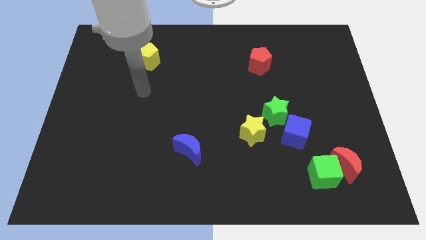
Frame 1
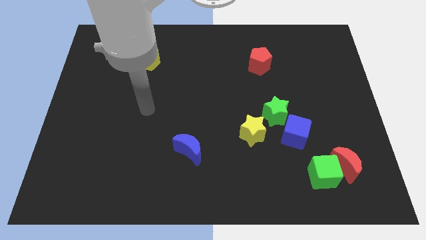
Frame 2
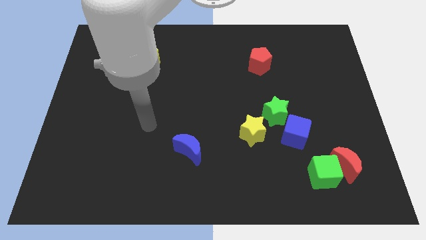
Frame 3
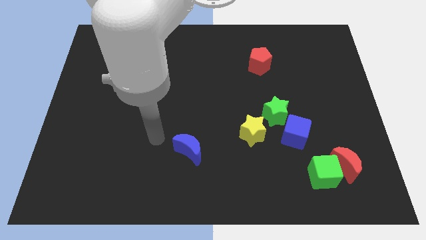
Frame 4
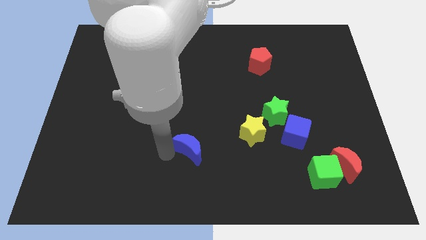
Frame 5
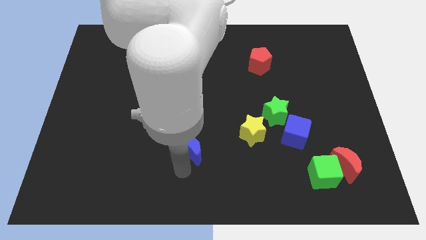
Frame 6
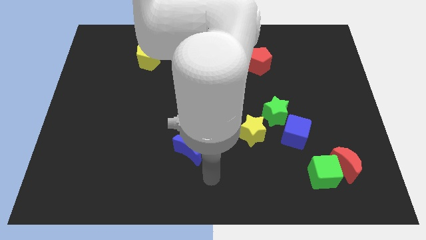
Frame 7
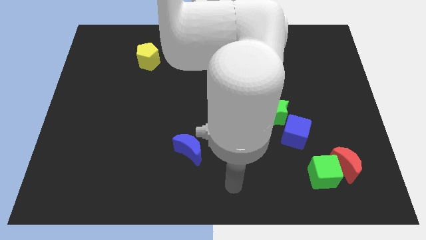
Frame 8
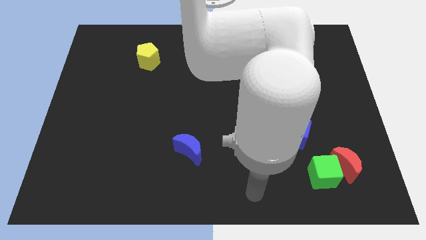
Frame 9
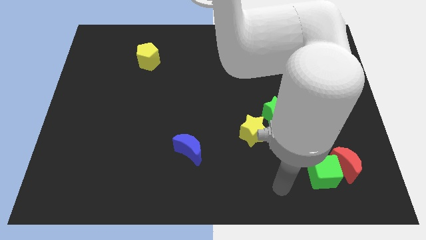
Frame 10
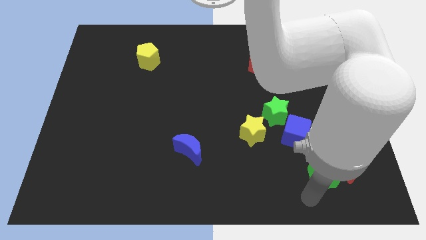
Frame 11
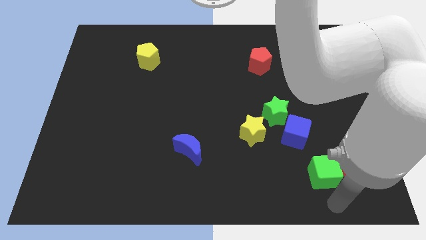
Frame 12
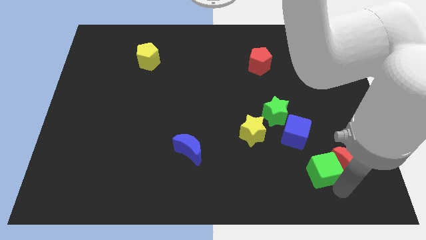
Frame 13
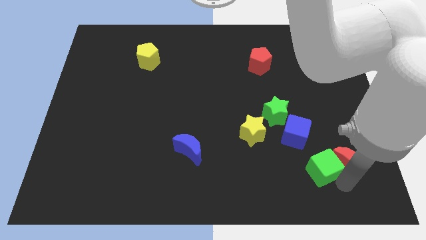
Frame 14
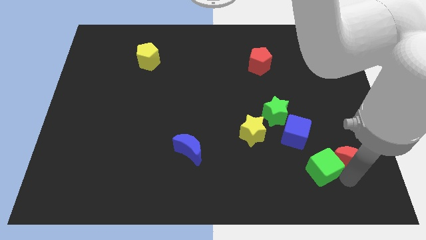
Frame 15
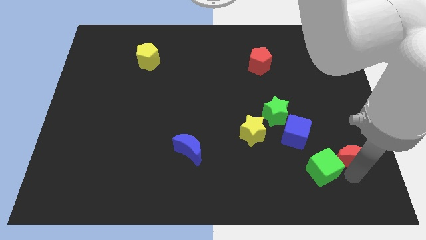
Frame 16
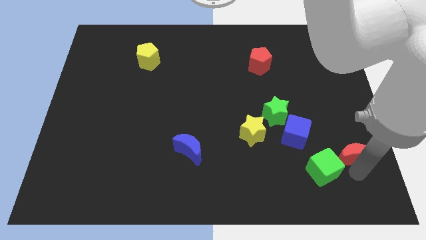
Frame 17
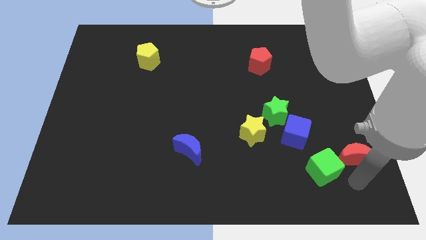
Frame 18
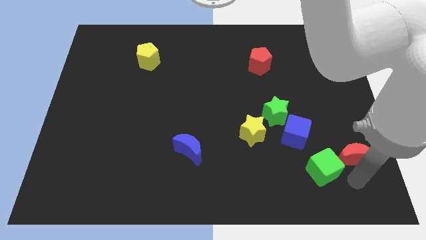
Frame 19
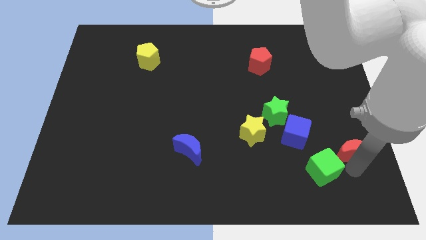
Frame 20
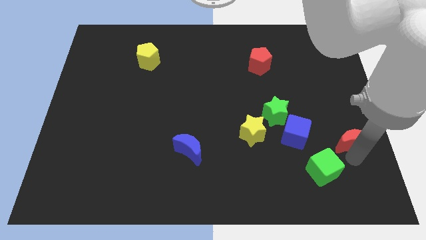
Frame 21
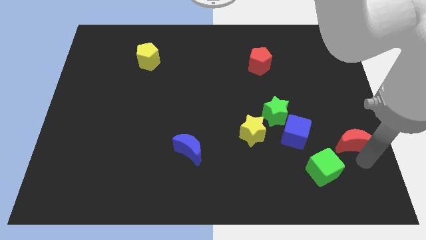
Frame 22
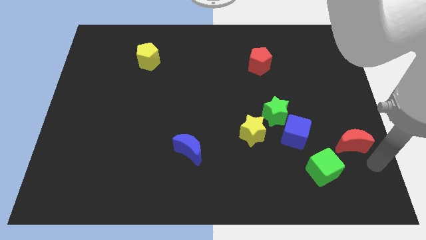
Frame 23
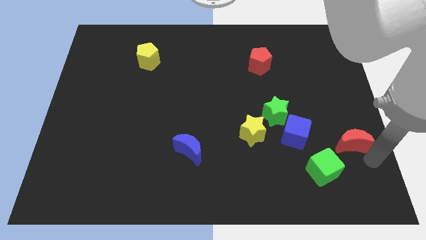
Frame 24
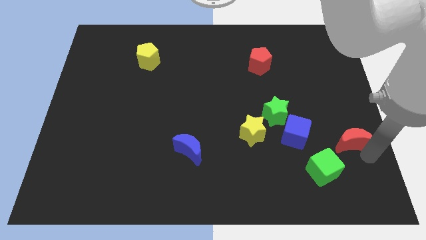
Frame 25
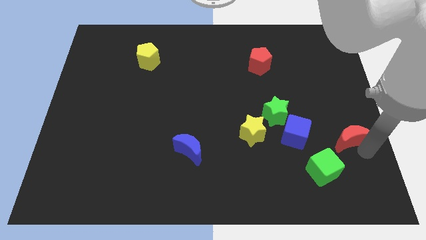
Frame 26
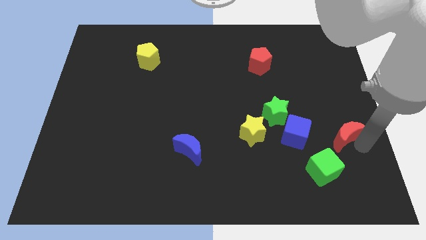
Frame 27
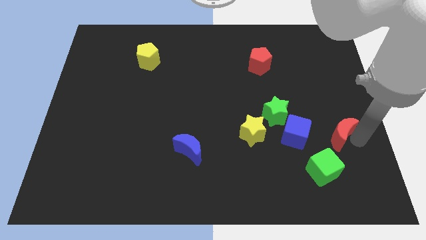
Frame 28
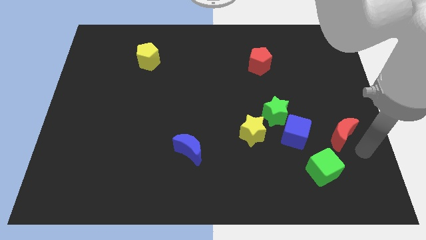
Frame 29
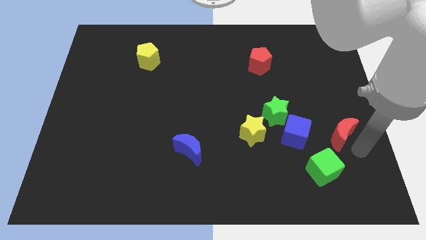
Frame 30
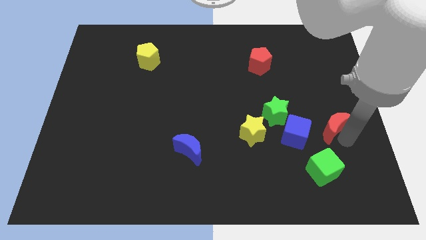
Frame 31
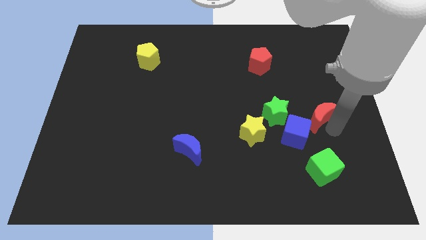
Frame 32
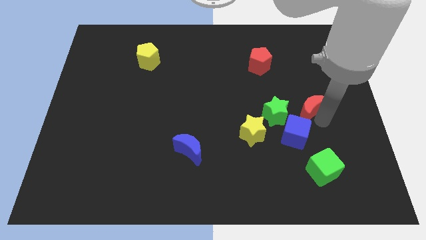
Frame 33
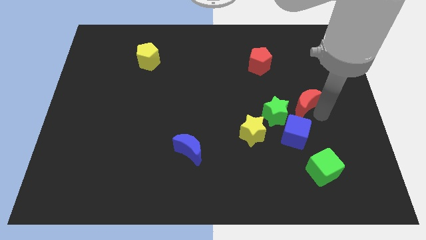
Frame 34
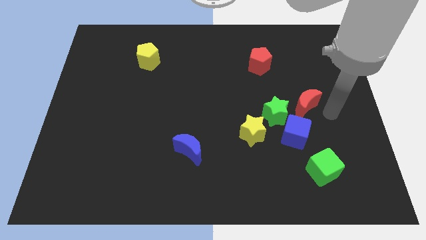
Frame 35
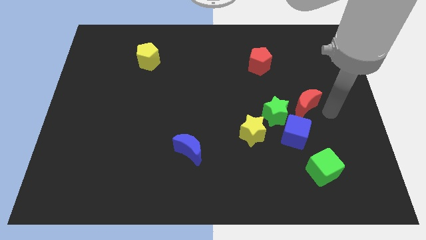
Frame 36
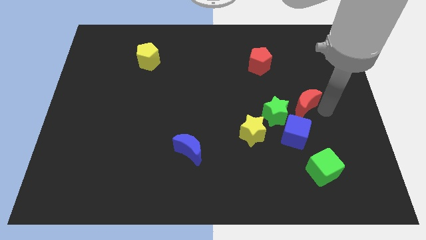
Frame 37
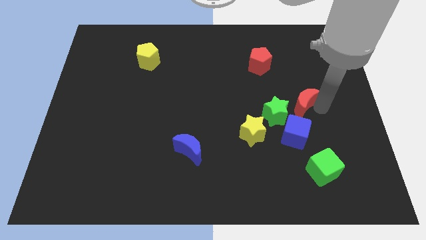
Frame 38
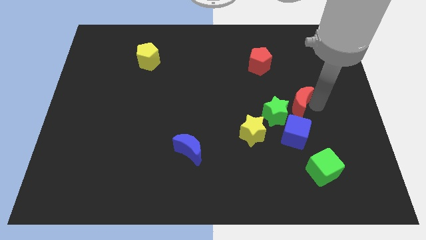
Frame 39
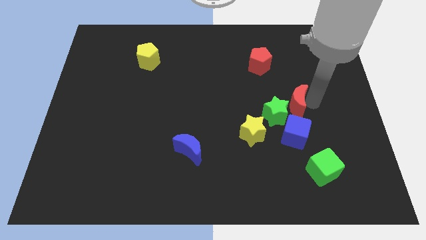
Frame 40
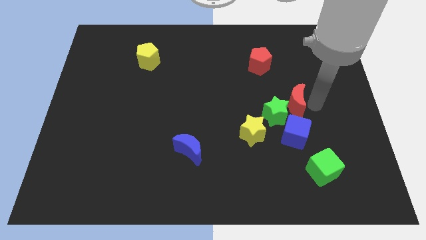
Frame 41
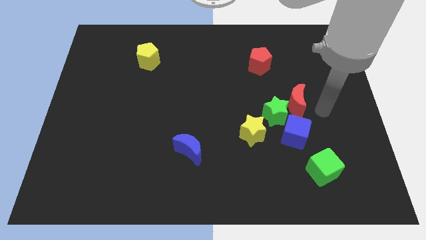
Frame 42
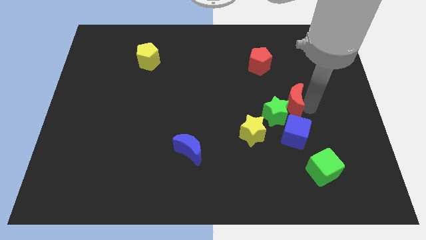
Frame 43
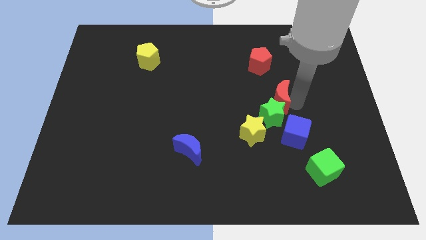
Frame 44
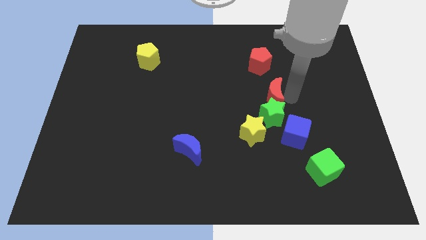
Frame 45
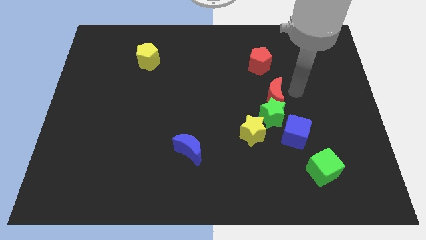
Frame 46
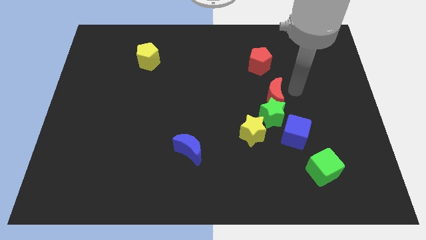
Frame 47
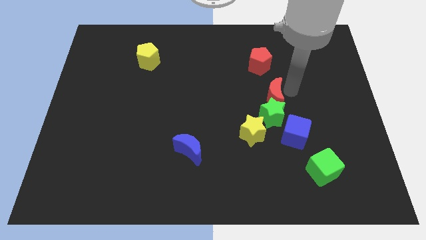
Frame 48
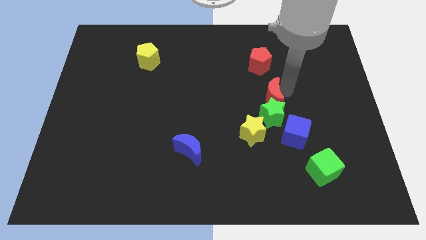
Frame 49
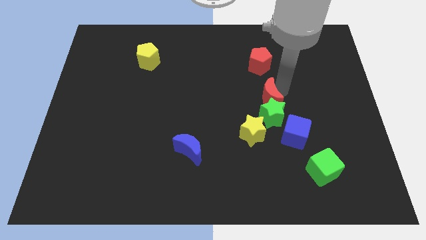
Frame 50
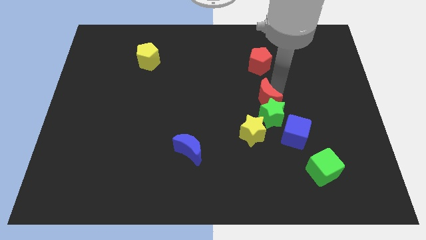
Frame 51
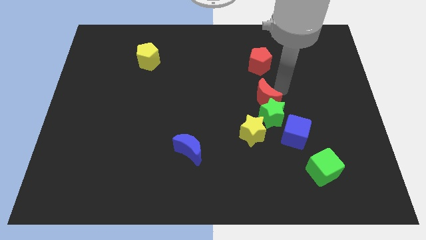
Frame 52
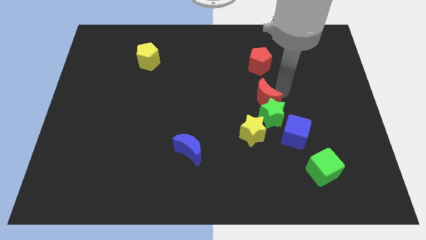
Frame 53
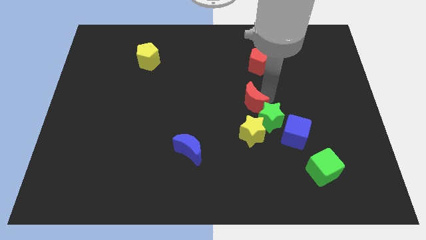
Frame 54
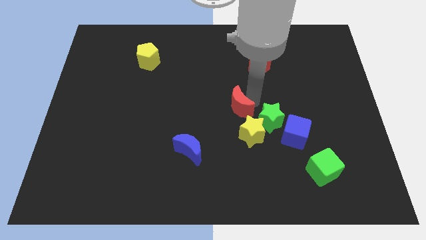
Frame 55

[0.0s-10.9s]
push the red moon diagonally up and to the left of the yellow star

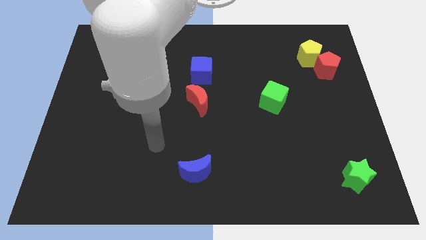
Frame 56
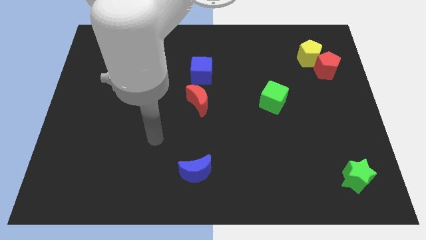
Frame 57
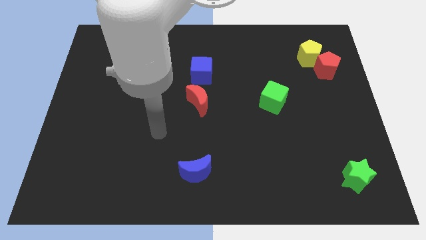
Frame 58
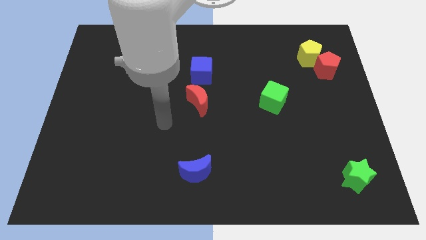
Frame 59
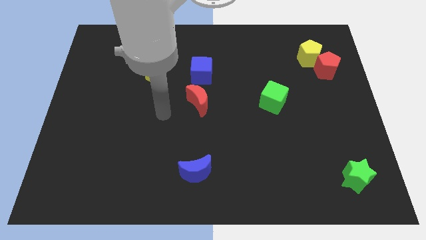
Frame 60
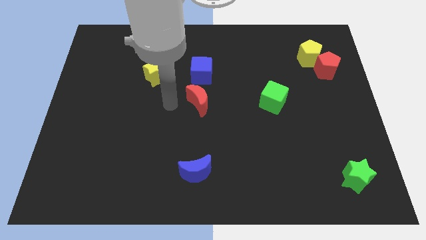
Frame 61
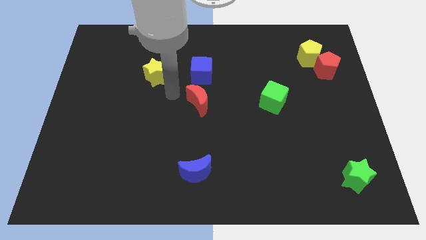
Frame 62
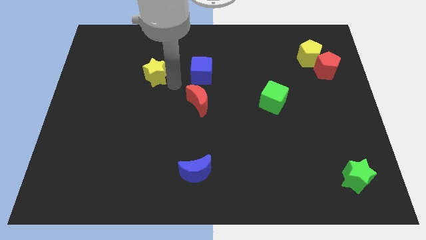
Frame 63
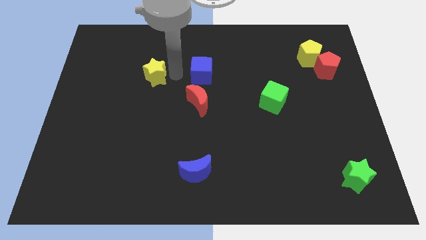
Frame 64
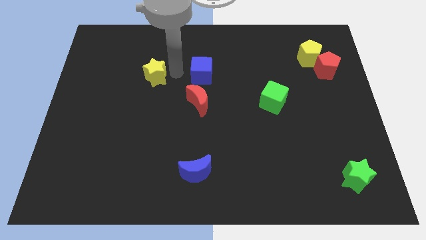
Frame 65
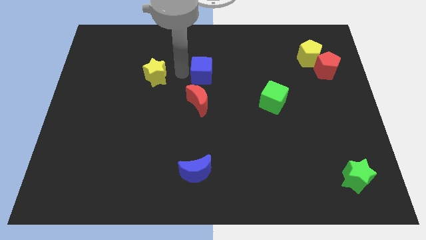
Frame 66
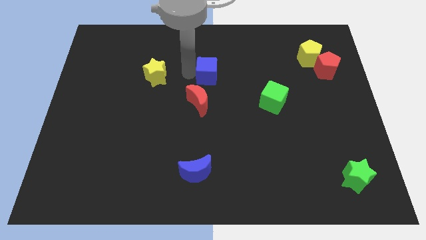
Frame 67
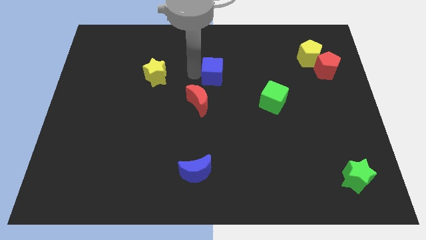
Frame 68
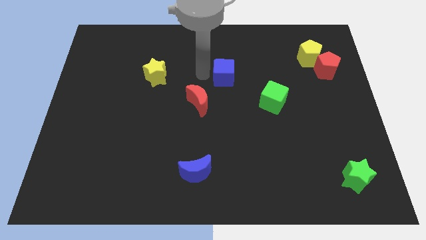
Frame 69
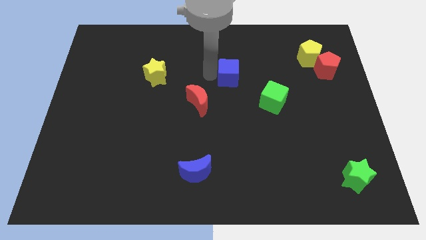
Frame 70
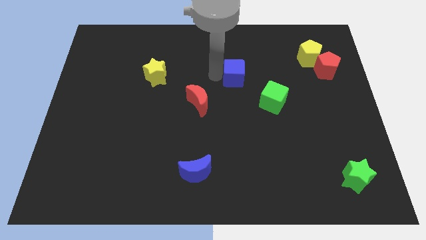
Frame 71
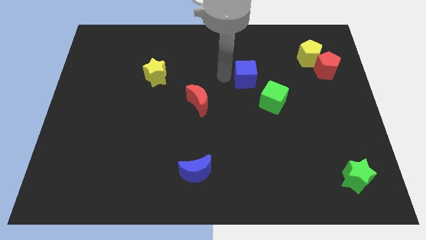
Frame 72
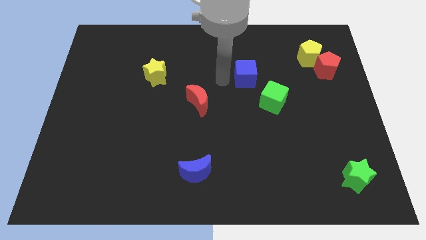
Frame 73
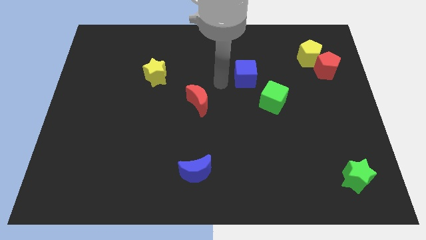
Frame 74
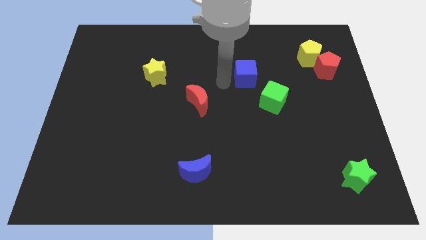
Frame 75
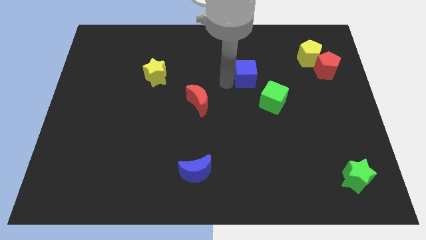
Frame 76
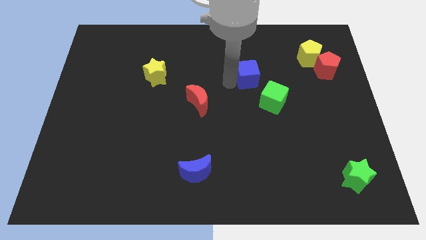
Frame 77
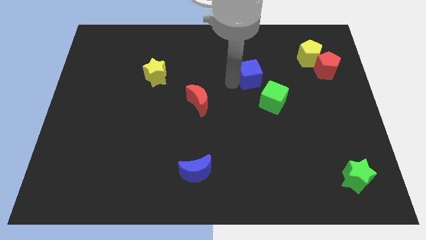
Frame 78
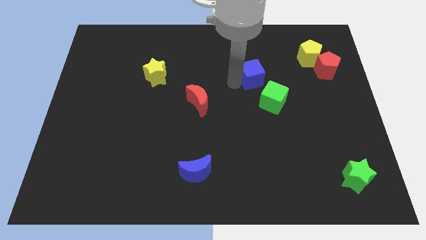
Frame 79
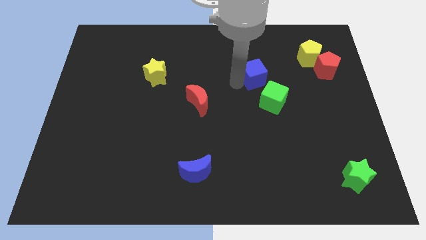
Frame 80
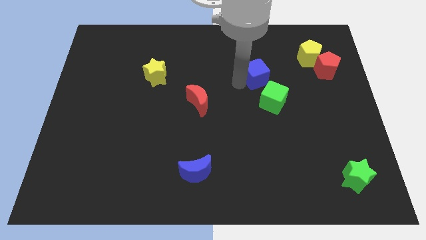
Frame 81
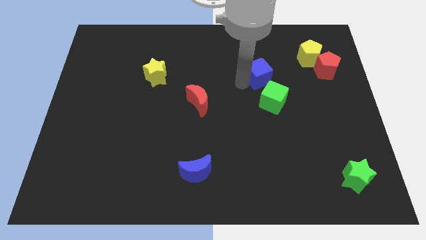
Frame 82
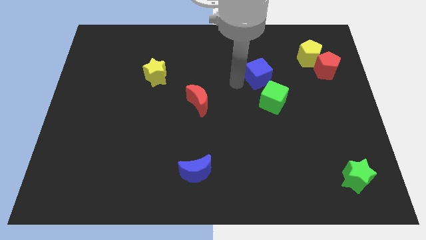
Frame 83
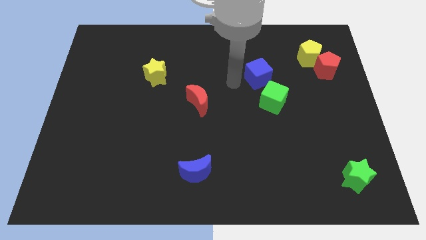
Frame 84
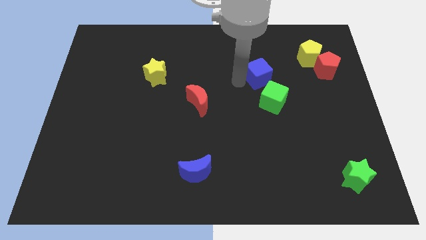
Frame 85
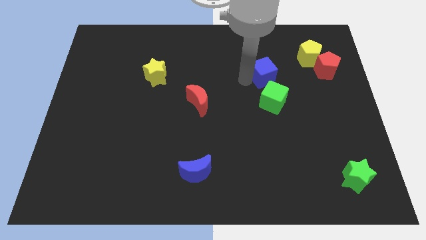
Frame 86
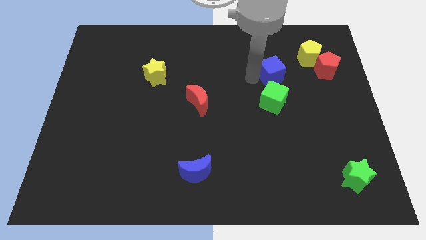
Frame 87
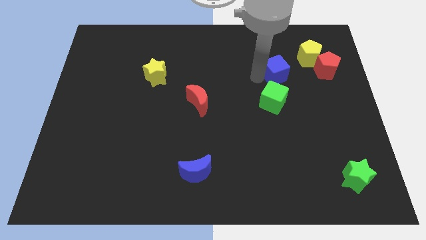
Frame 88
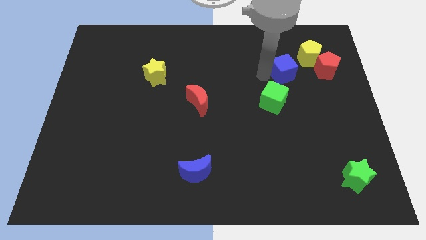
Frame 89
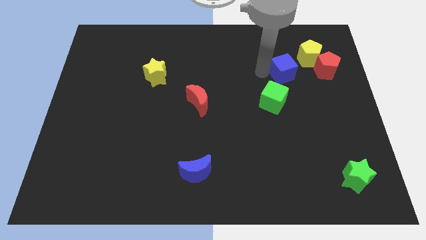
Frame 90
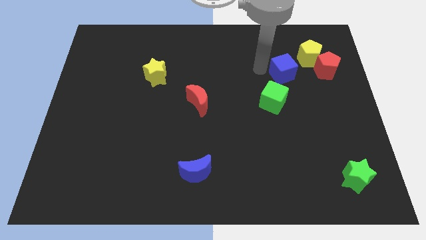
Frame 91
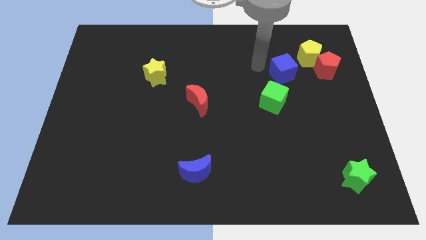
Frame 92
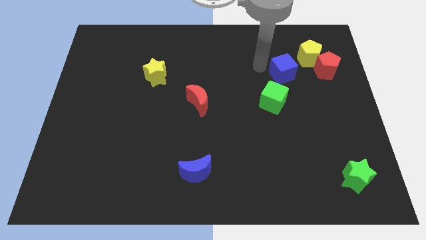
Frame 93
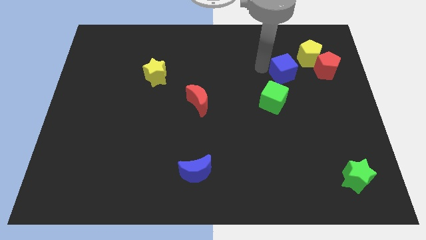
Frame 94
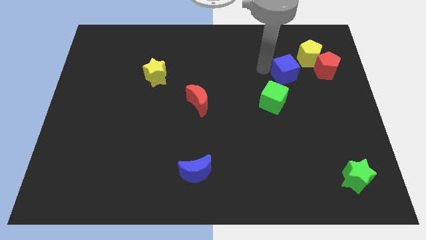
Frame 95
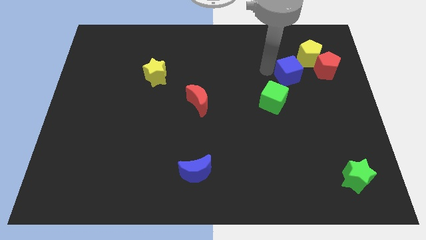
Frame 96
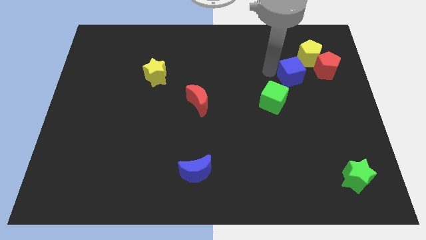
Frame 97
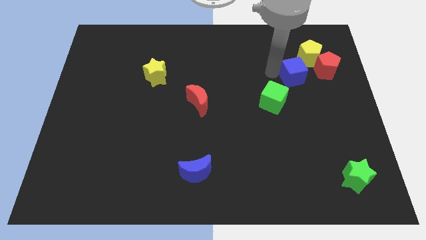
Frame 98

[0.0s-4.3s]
push the blue cube below the yellow pentagon
